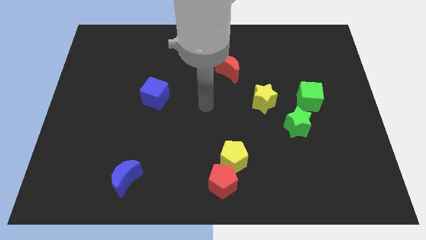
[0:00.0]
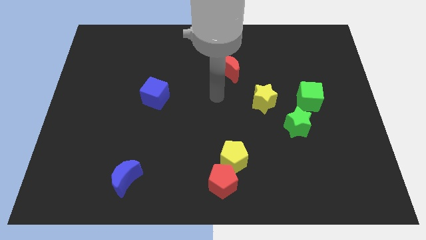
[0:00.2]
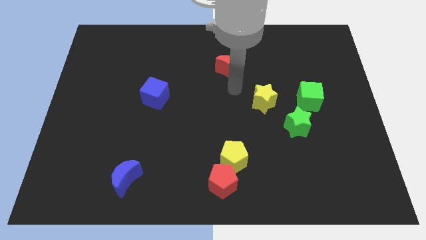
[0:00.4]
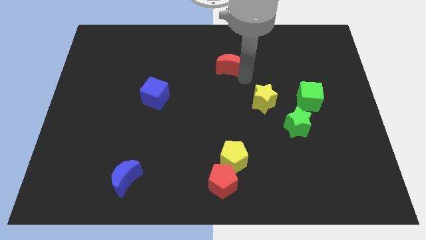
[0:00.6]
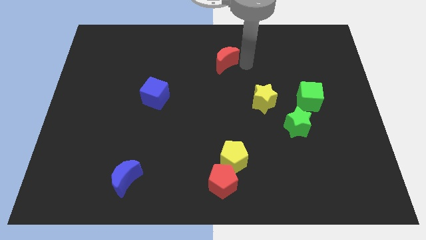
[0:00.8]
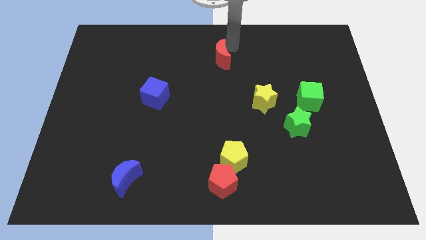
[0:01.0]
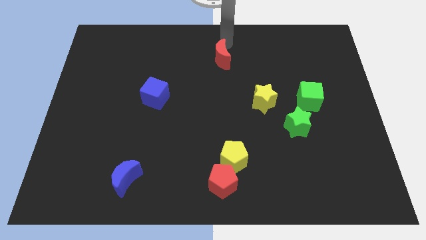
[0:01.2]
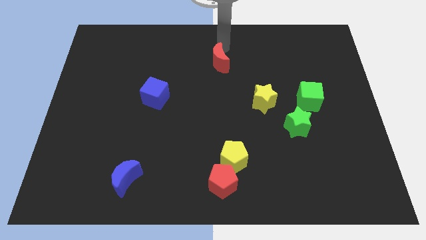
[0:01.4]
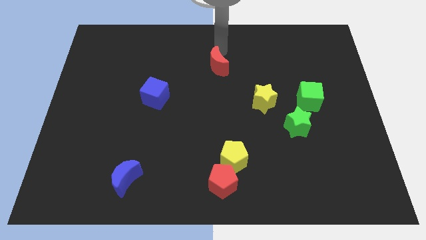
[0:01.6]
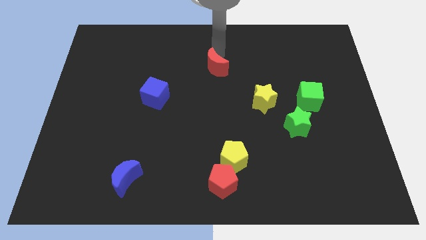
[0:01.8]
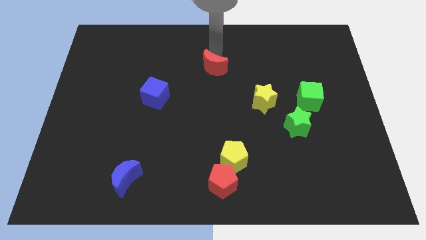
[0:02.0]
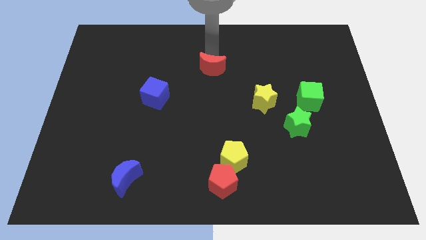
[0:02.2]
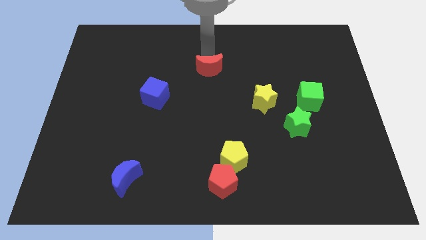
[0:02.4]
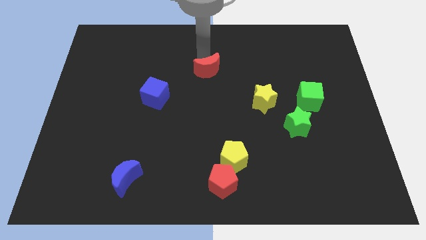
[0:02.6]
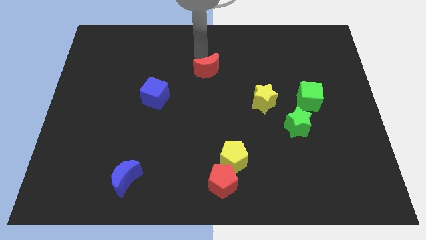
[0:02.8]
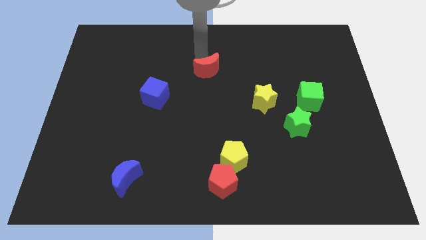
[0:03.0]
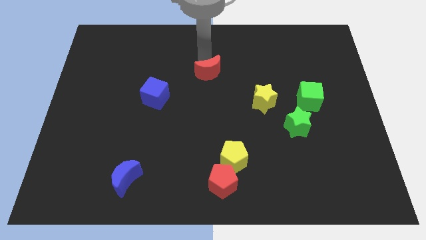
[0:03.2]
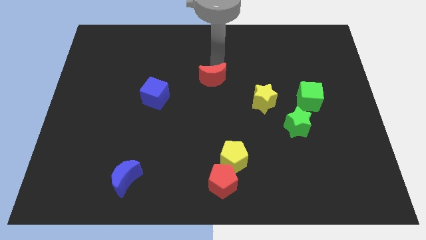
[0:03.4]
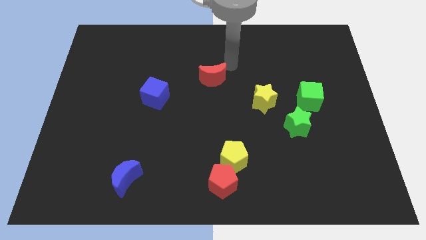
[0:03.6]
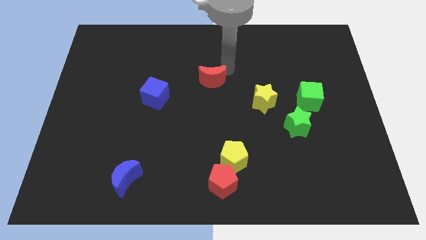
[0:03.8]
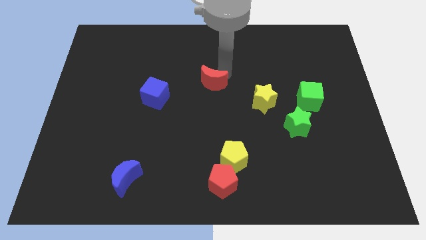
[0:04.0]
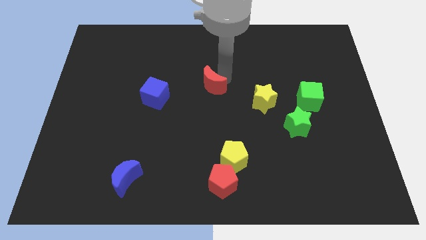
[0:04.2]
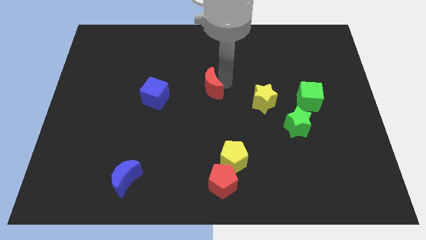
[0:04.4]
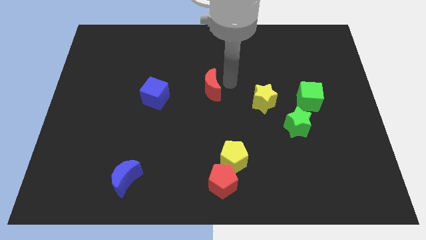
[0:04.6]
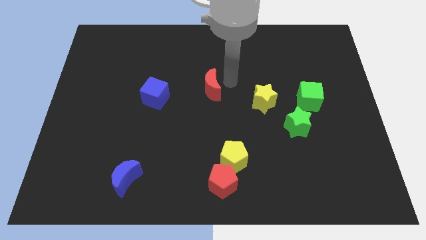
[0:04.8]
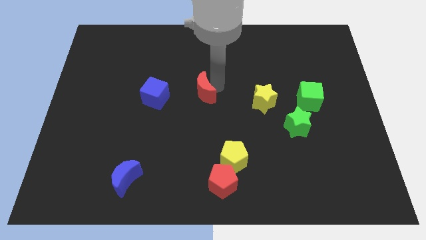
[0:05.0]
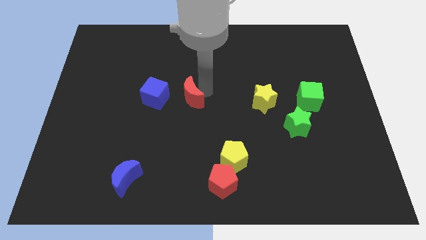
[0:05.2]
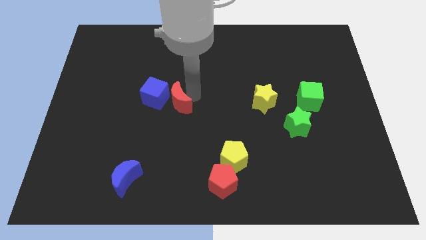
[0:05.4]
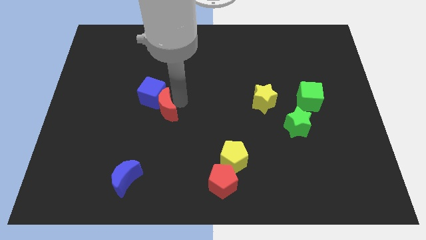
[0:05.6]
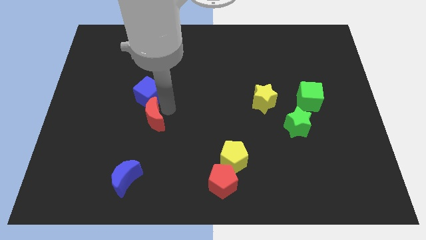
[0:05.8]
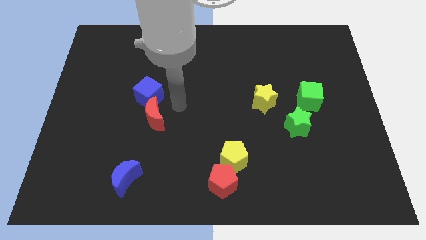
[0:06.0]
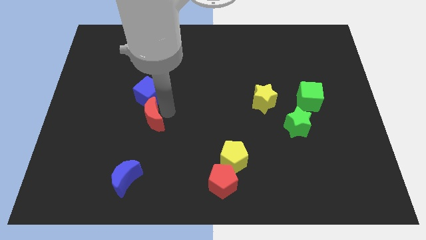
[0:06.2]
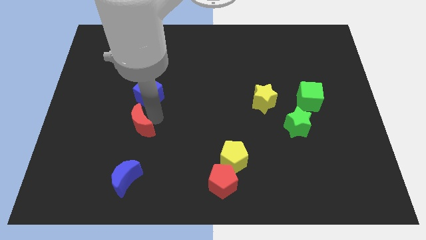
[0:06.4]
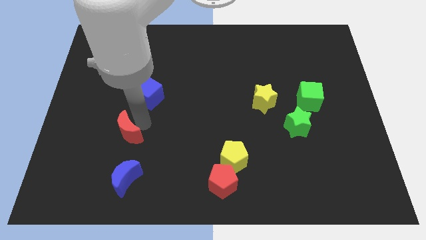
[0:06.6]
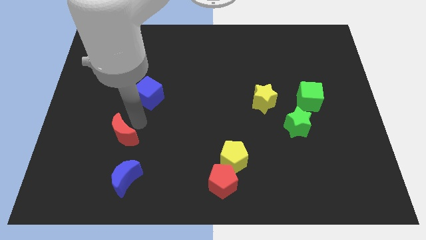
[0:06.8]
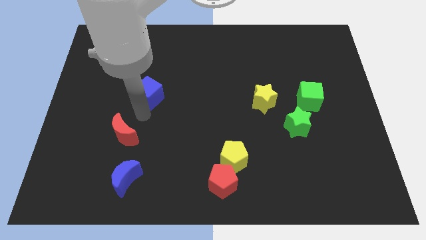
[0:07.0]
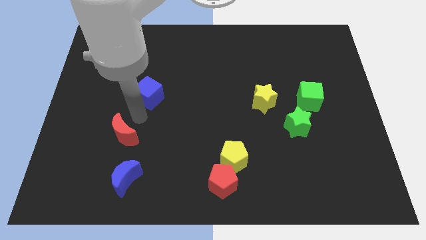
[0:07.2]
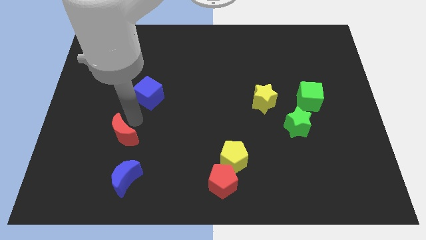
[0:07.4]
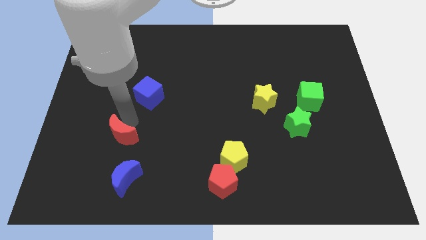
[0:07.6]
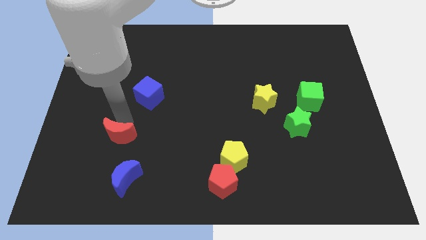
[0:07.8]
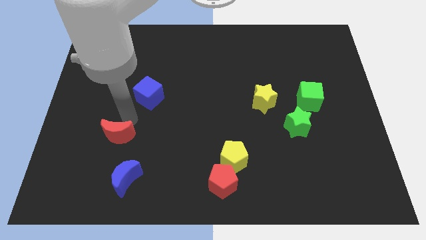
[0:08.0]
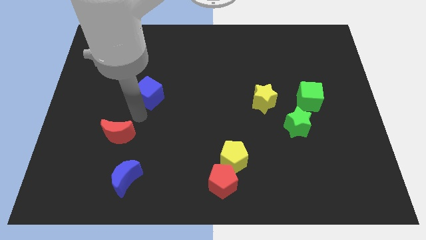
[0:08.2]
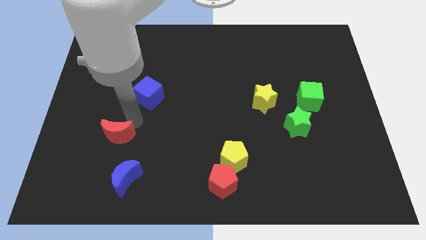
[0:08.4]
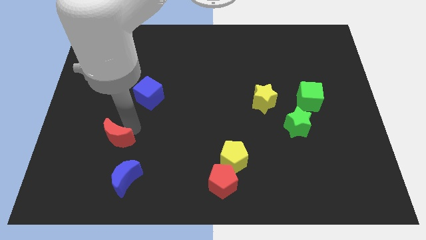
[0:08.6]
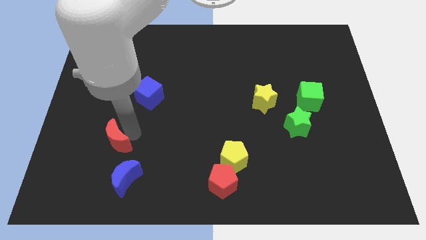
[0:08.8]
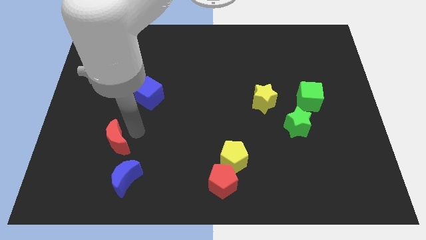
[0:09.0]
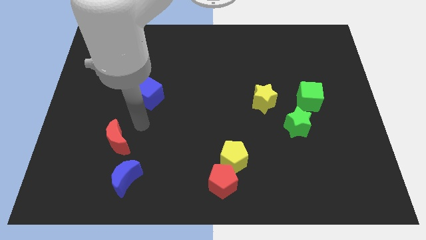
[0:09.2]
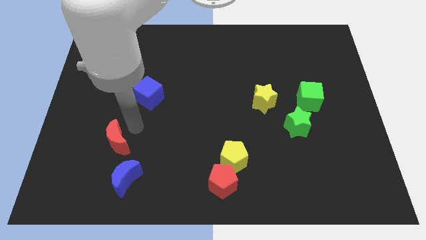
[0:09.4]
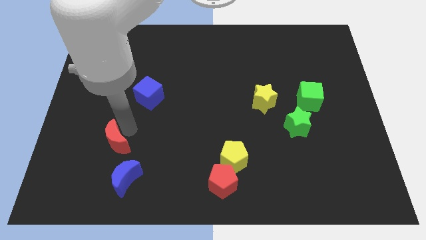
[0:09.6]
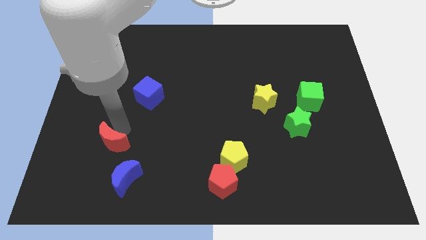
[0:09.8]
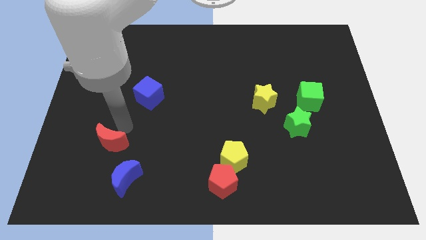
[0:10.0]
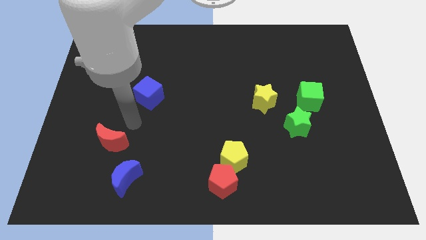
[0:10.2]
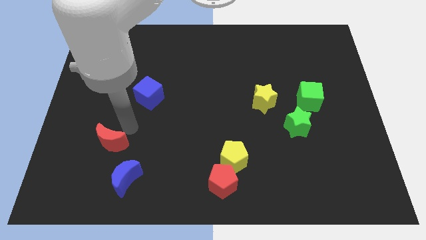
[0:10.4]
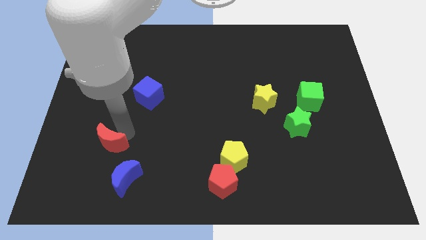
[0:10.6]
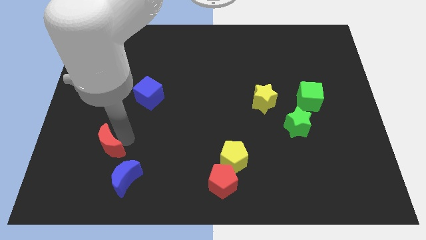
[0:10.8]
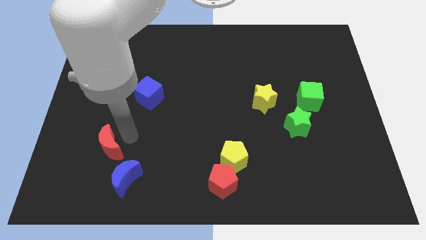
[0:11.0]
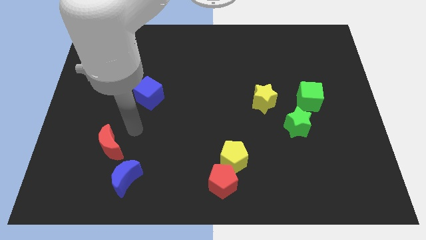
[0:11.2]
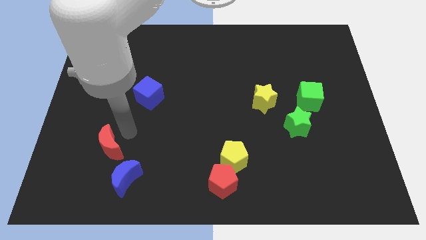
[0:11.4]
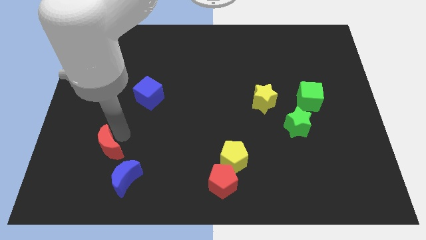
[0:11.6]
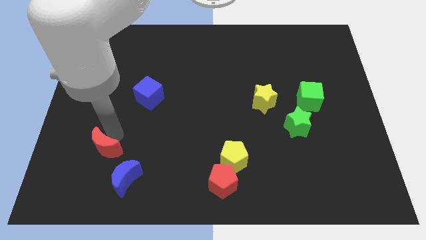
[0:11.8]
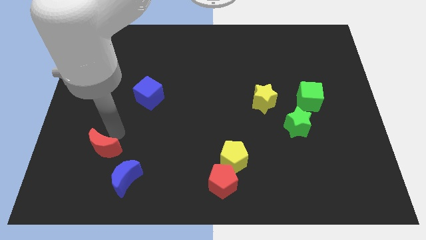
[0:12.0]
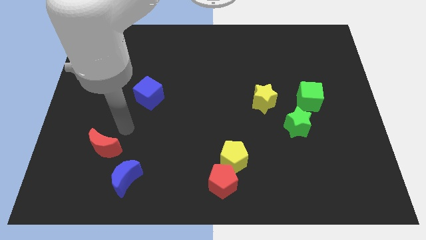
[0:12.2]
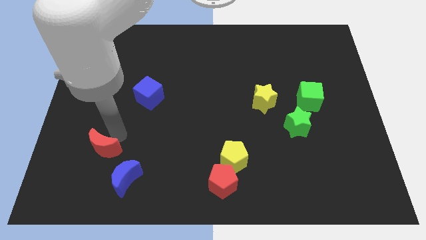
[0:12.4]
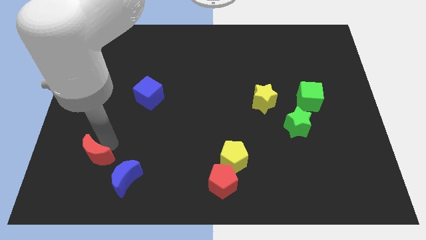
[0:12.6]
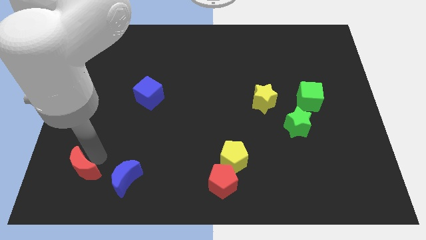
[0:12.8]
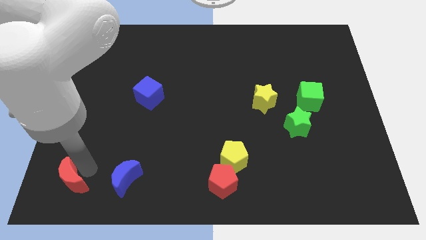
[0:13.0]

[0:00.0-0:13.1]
push the red moon to the lower left corner
